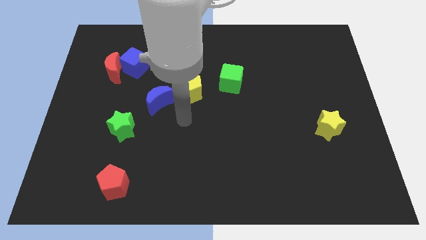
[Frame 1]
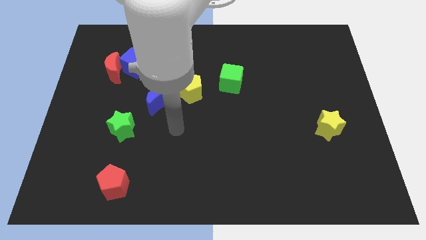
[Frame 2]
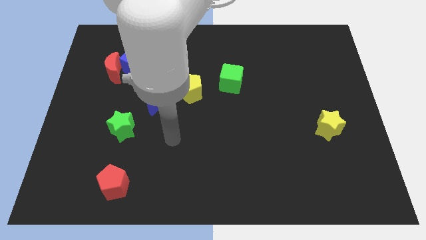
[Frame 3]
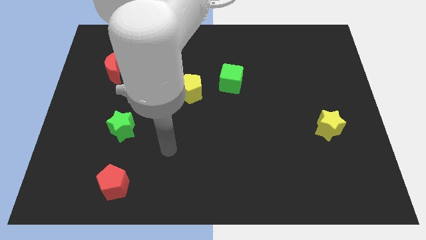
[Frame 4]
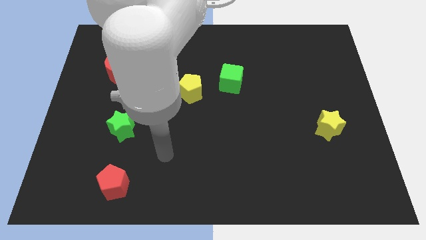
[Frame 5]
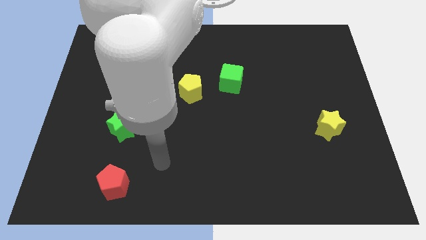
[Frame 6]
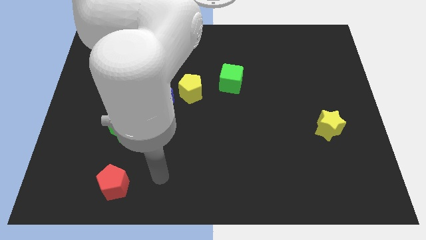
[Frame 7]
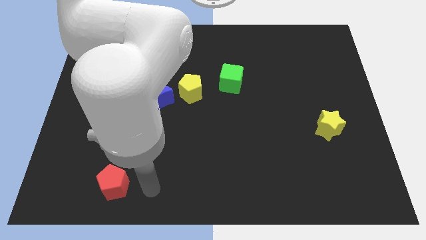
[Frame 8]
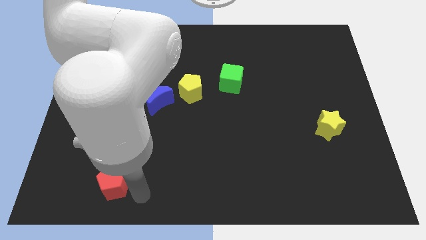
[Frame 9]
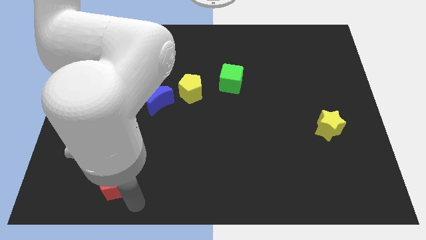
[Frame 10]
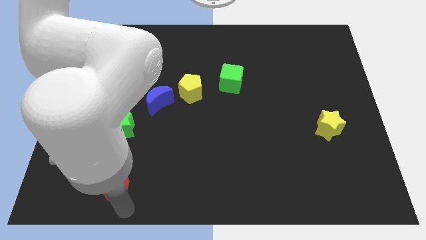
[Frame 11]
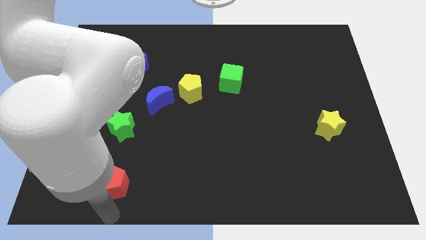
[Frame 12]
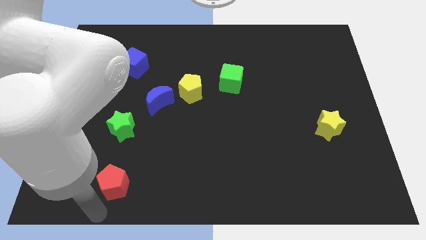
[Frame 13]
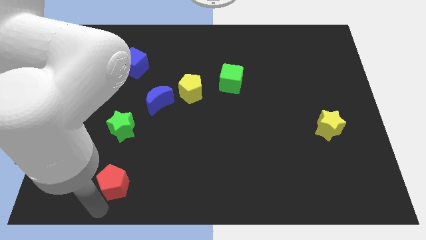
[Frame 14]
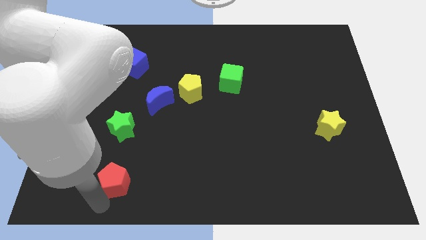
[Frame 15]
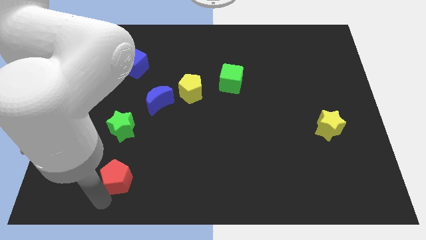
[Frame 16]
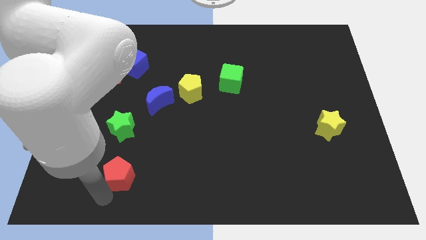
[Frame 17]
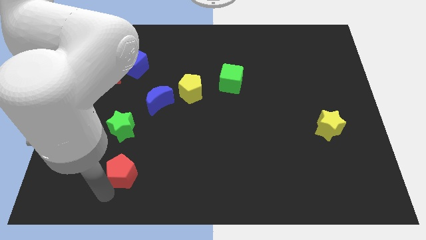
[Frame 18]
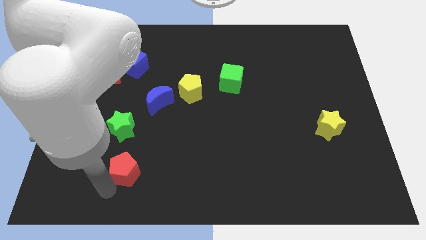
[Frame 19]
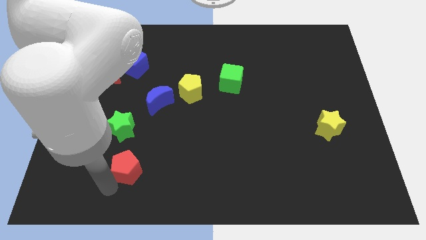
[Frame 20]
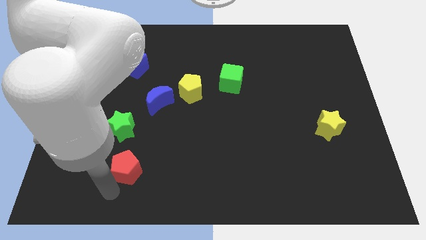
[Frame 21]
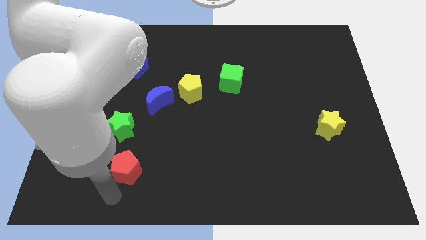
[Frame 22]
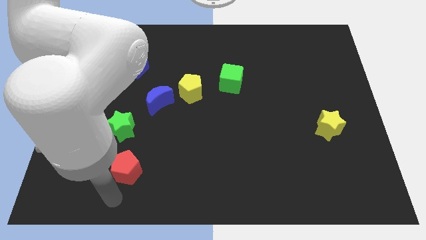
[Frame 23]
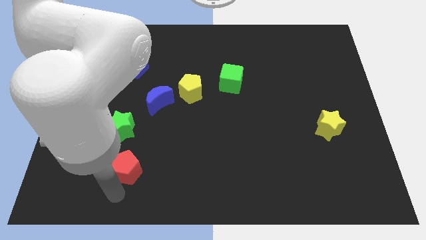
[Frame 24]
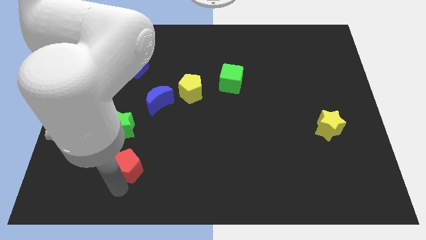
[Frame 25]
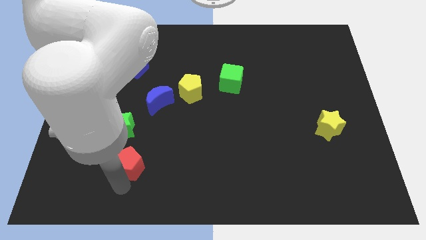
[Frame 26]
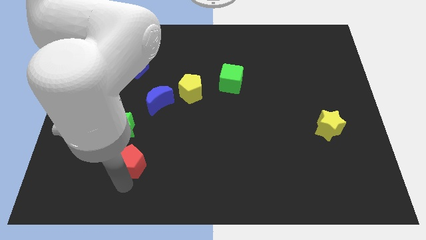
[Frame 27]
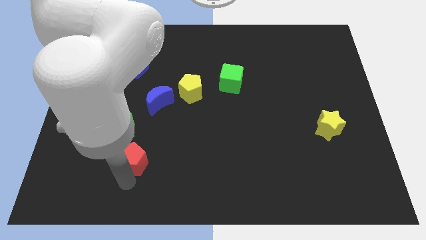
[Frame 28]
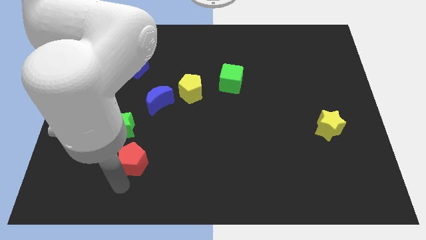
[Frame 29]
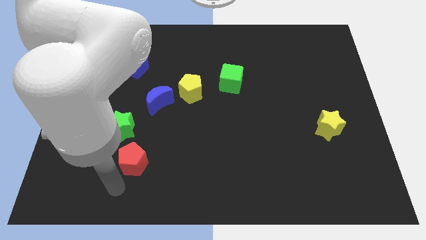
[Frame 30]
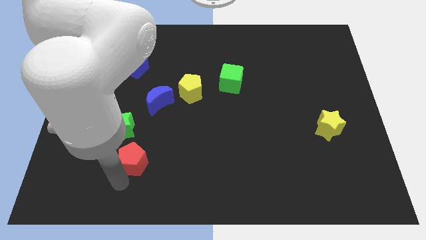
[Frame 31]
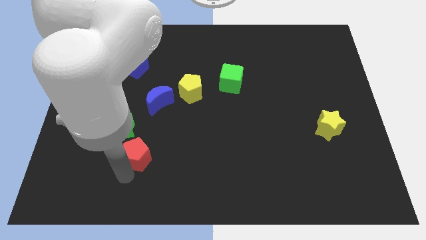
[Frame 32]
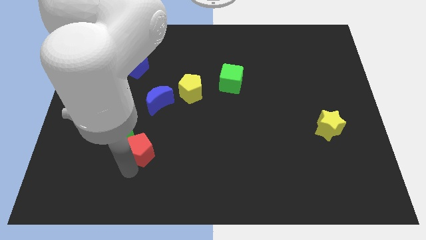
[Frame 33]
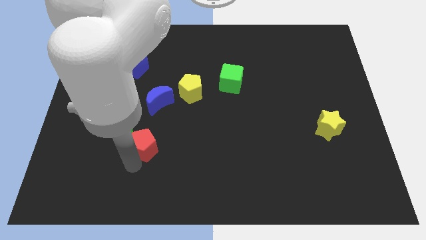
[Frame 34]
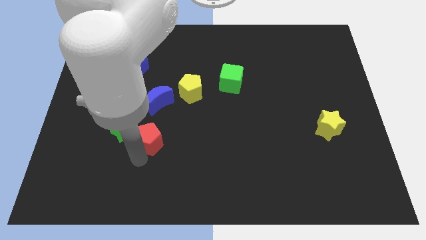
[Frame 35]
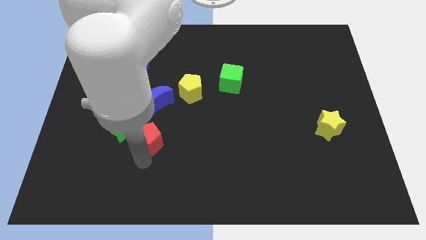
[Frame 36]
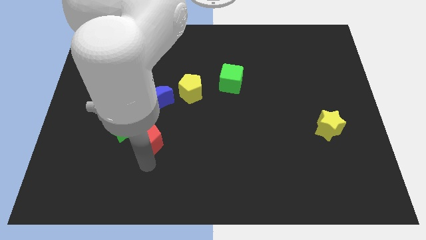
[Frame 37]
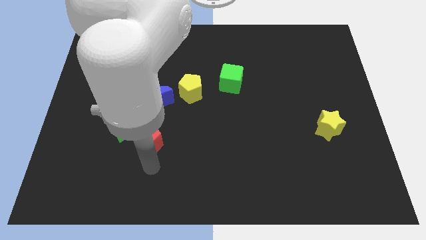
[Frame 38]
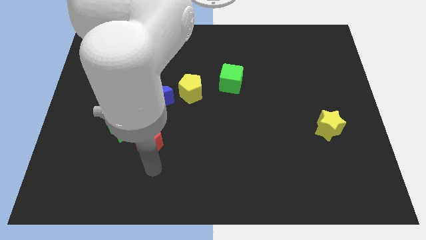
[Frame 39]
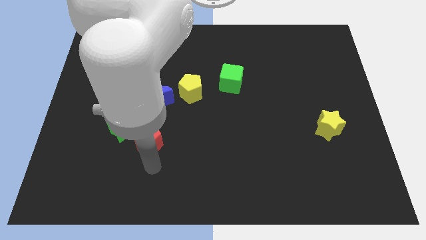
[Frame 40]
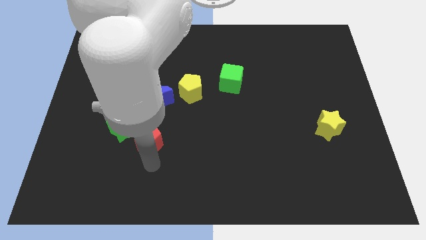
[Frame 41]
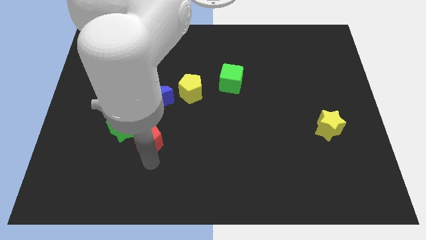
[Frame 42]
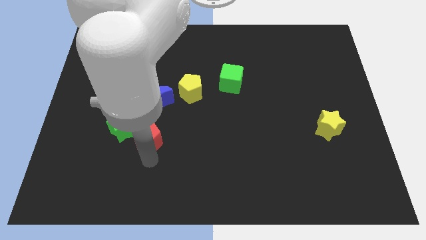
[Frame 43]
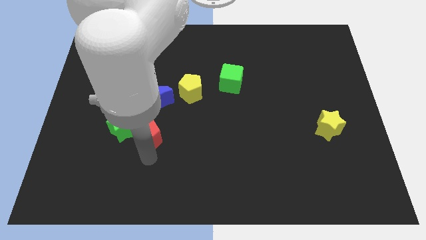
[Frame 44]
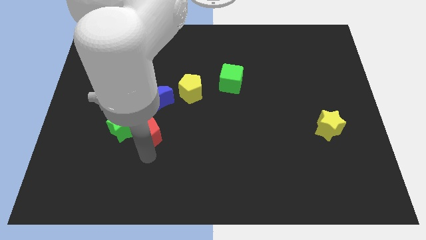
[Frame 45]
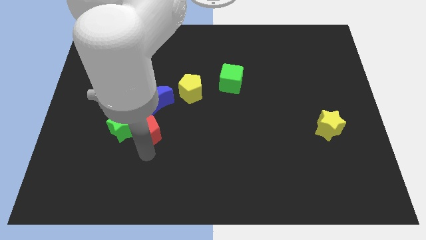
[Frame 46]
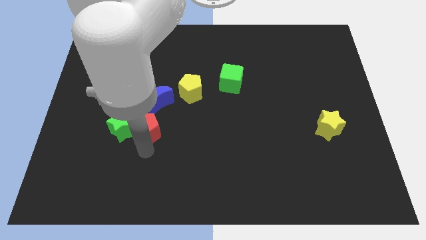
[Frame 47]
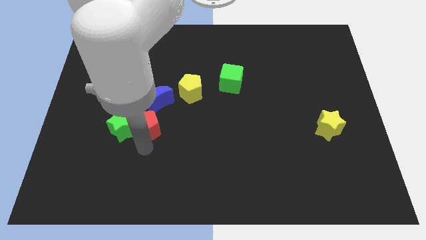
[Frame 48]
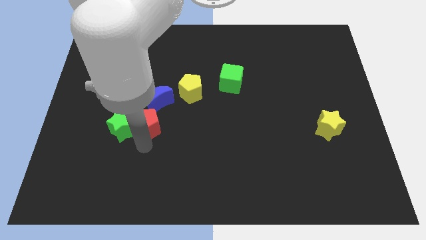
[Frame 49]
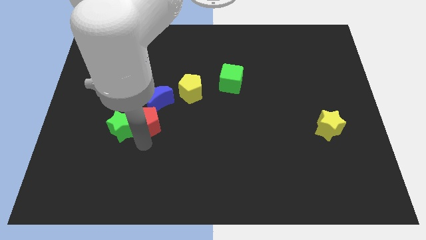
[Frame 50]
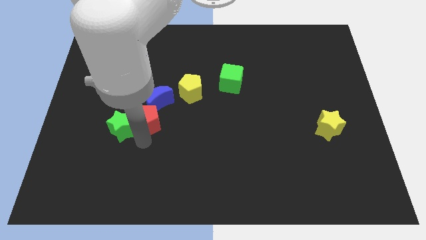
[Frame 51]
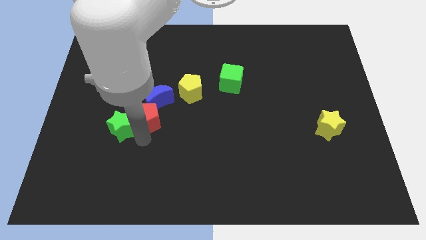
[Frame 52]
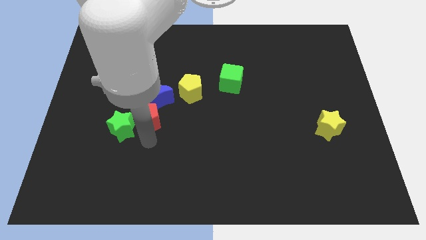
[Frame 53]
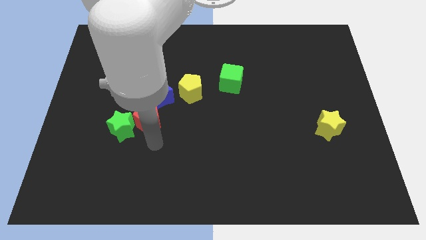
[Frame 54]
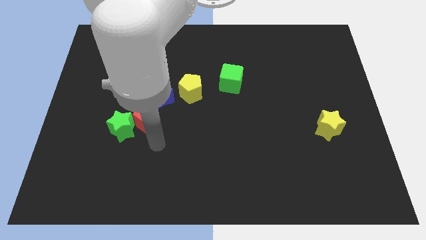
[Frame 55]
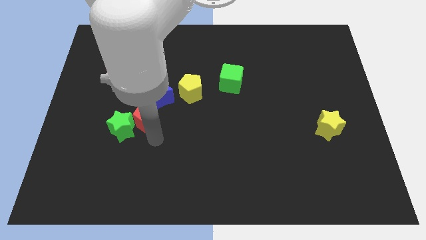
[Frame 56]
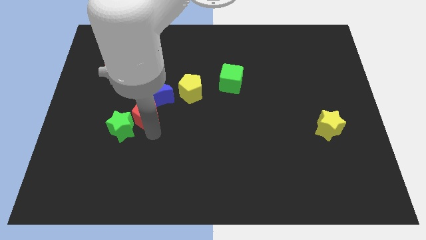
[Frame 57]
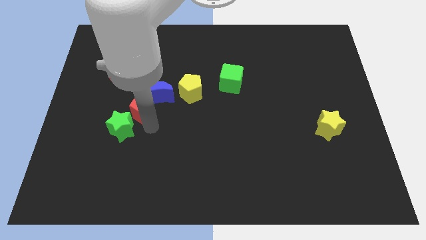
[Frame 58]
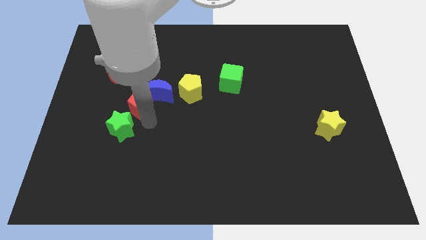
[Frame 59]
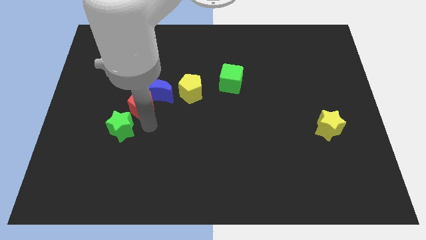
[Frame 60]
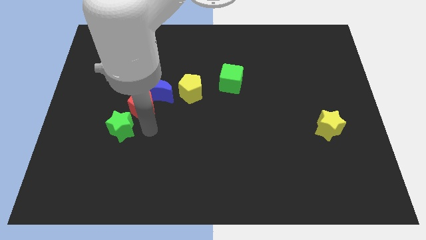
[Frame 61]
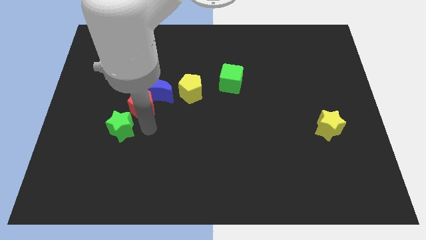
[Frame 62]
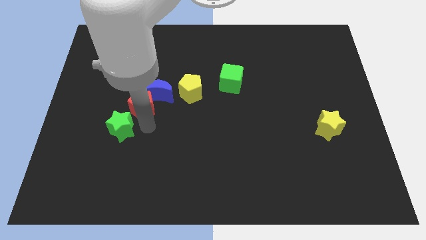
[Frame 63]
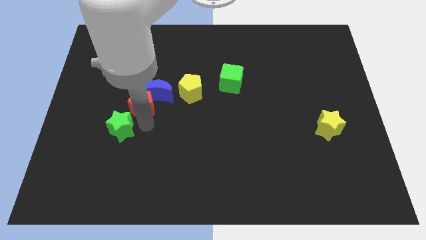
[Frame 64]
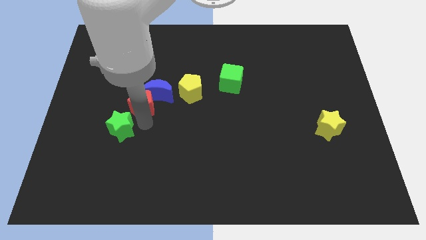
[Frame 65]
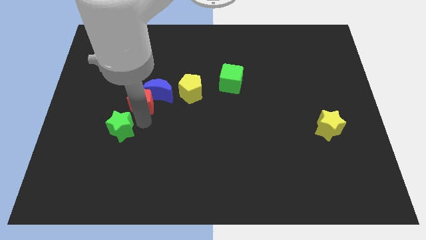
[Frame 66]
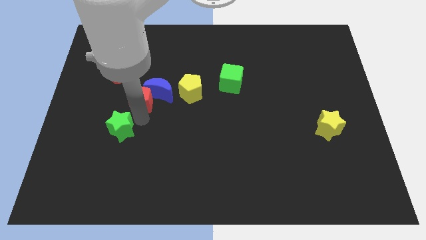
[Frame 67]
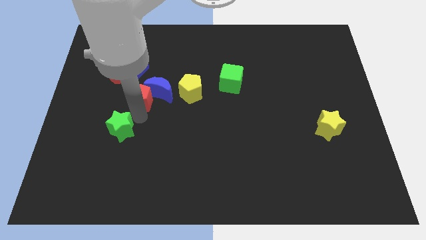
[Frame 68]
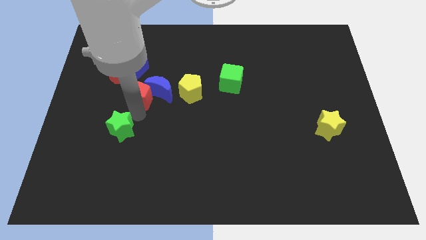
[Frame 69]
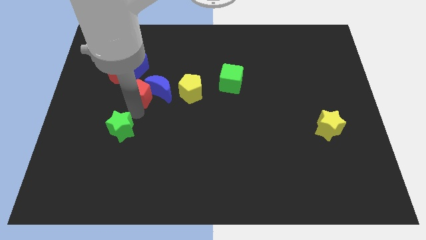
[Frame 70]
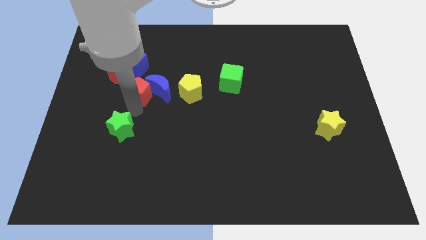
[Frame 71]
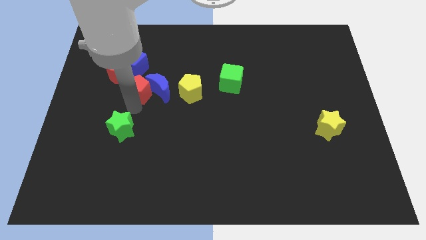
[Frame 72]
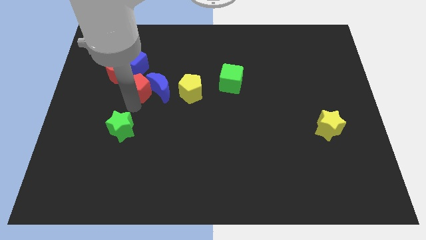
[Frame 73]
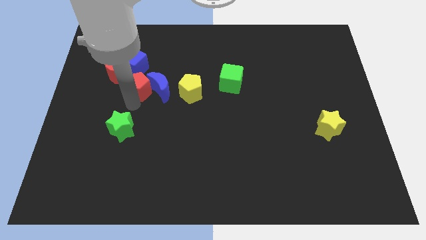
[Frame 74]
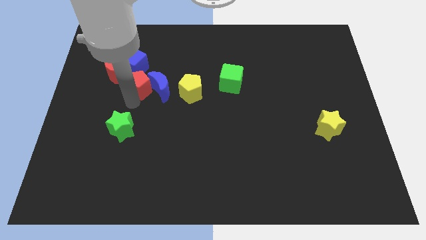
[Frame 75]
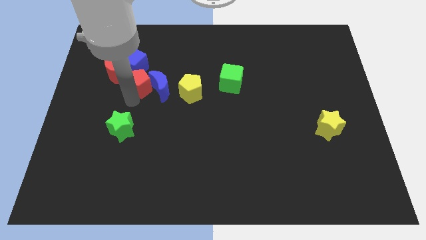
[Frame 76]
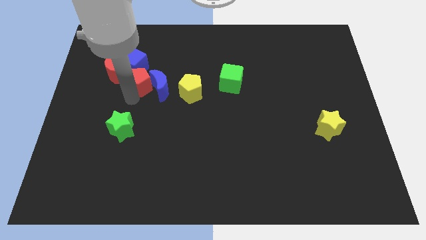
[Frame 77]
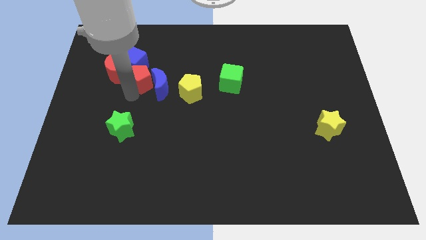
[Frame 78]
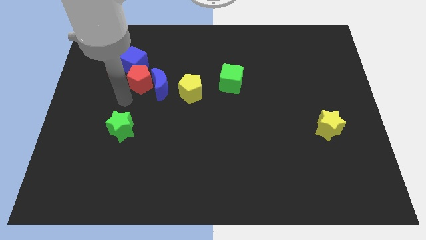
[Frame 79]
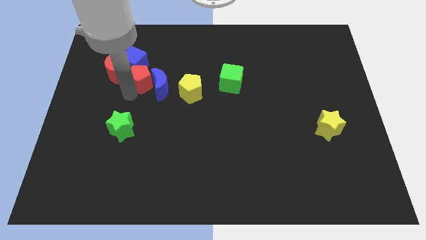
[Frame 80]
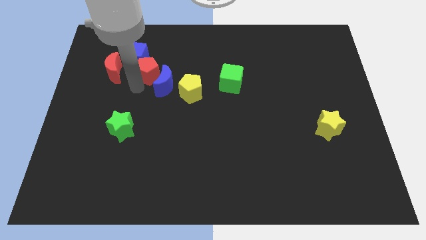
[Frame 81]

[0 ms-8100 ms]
push the red pentagon to the top side of the blue moon

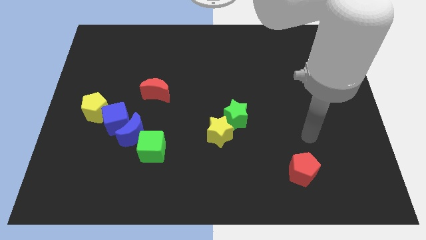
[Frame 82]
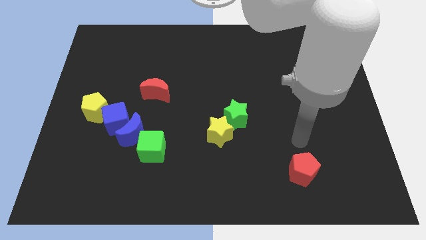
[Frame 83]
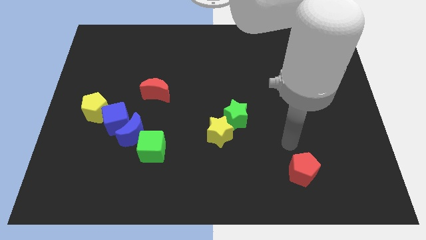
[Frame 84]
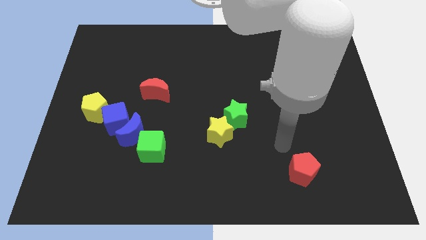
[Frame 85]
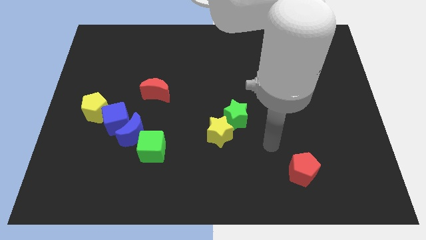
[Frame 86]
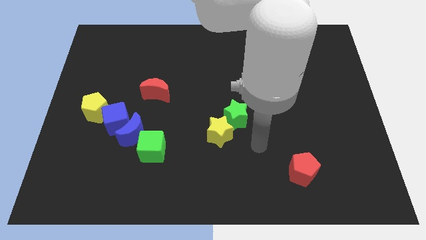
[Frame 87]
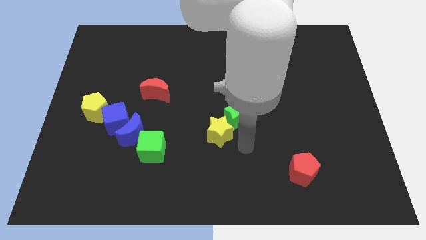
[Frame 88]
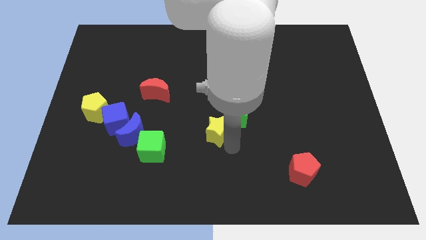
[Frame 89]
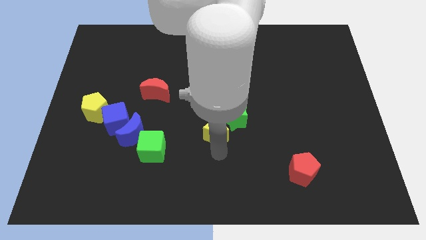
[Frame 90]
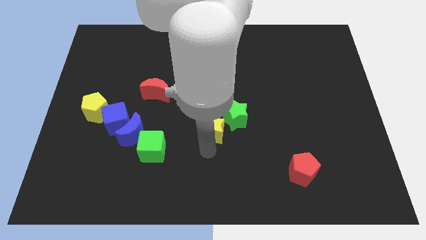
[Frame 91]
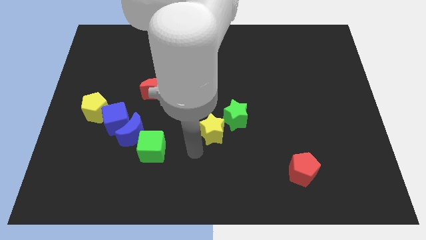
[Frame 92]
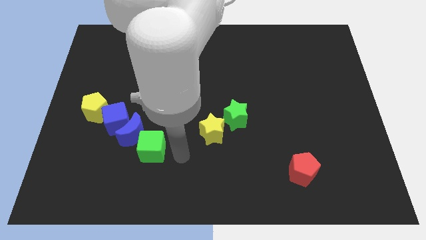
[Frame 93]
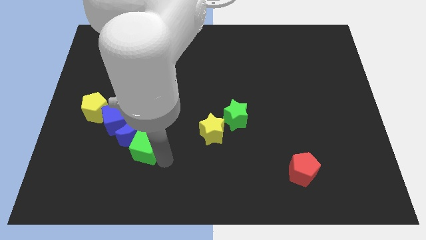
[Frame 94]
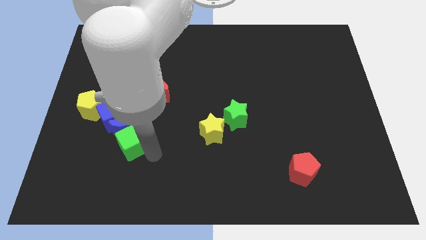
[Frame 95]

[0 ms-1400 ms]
move the blue moon to the bottom left of the red moon
